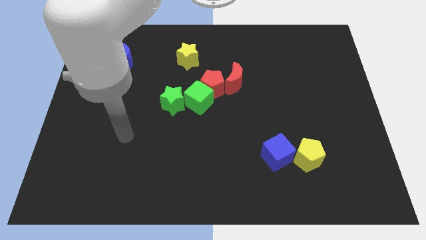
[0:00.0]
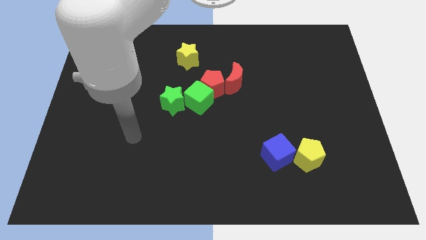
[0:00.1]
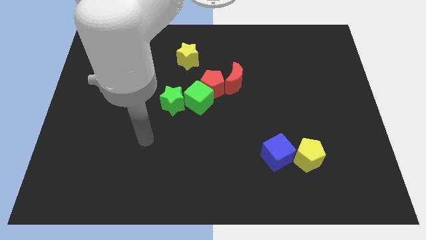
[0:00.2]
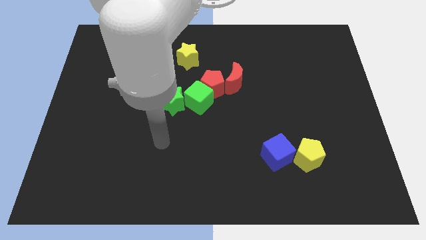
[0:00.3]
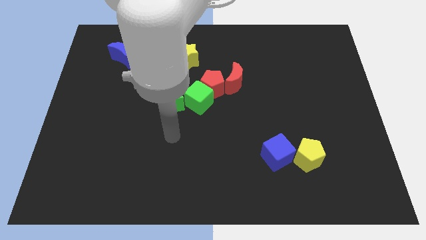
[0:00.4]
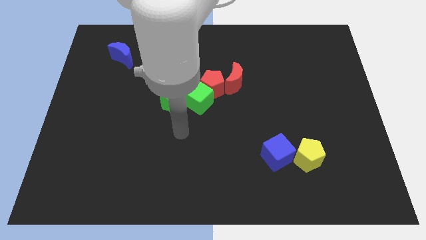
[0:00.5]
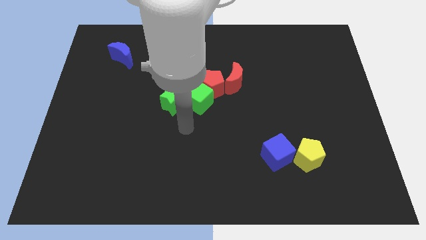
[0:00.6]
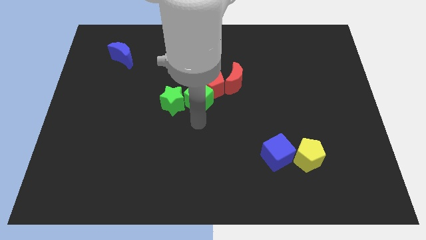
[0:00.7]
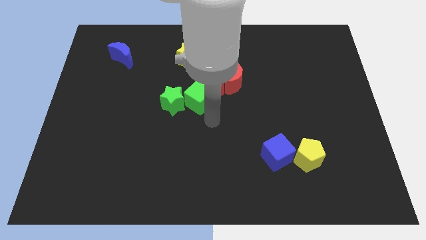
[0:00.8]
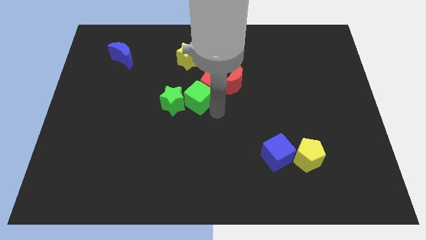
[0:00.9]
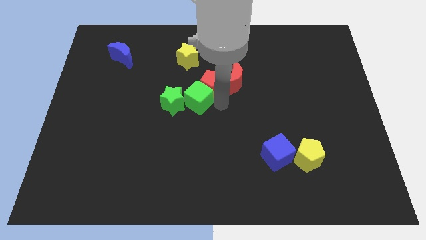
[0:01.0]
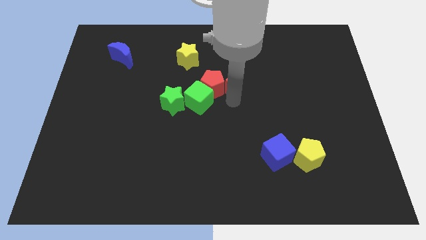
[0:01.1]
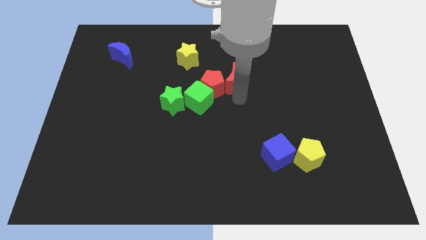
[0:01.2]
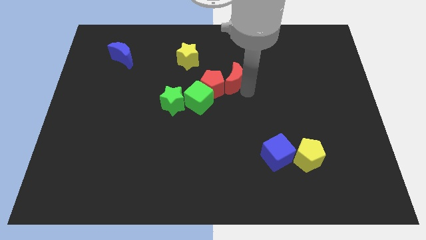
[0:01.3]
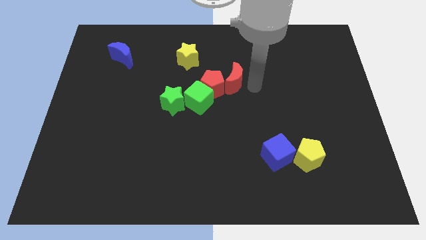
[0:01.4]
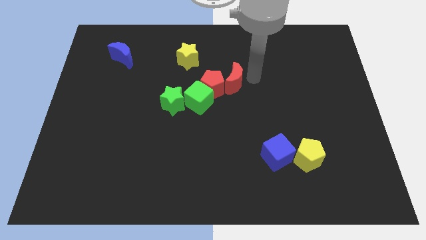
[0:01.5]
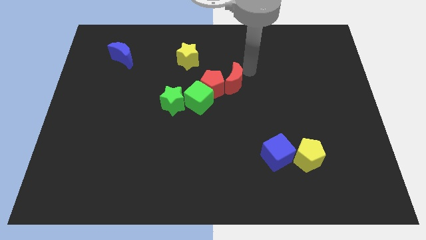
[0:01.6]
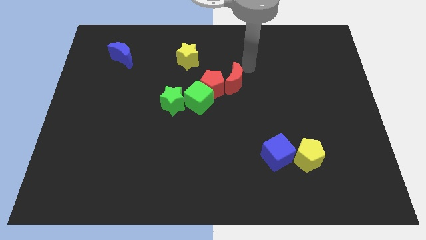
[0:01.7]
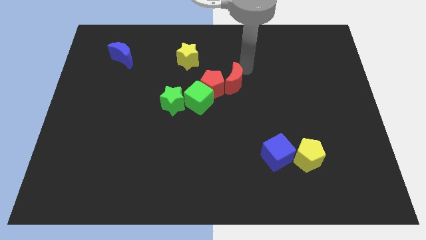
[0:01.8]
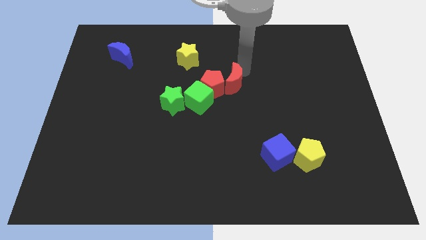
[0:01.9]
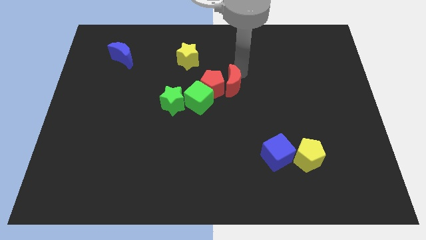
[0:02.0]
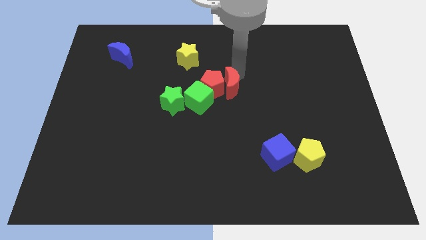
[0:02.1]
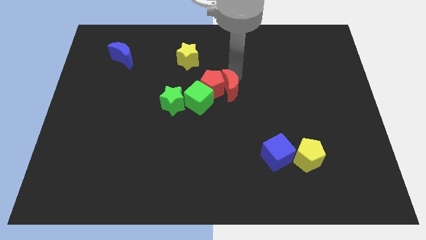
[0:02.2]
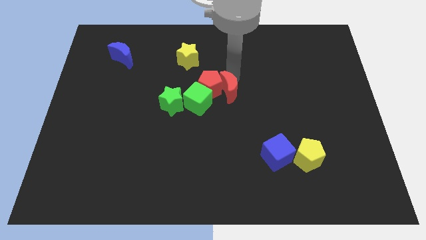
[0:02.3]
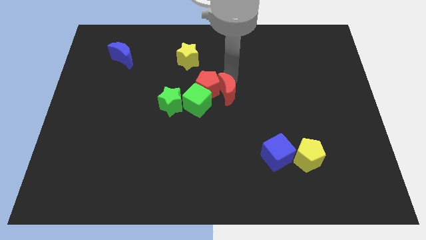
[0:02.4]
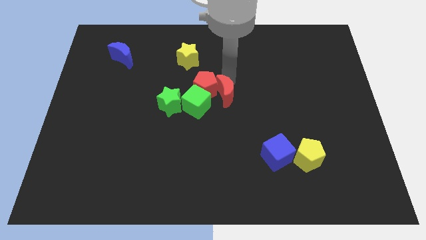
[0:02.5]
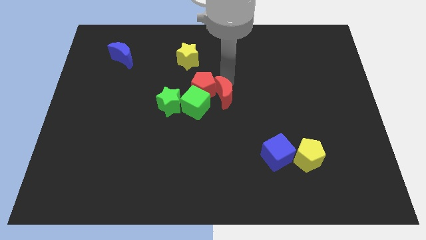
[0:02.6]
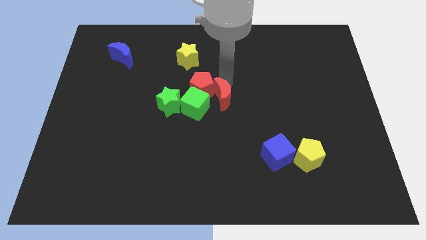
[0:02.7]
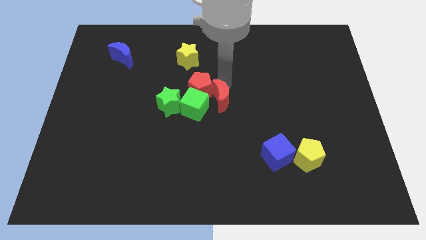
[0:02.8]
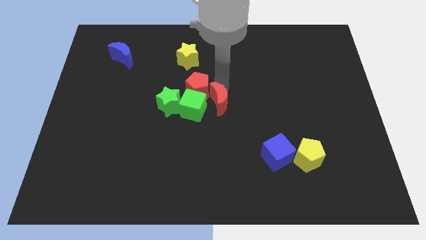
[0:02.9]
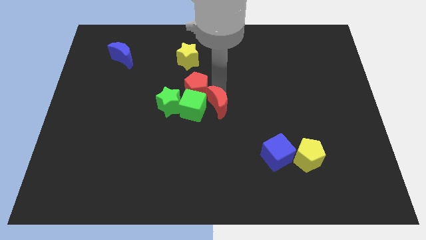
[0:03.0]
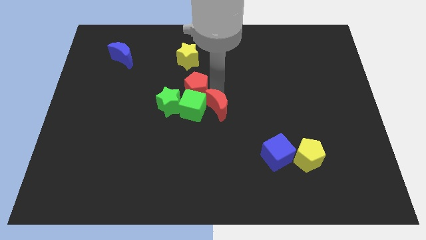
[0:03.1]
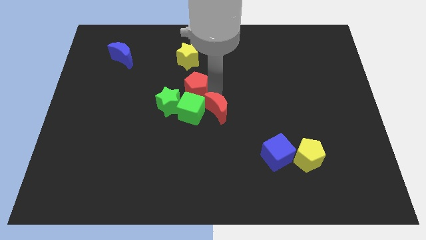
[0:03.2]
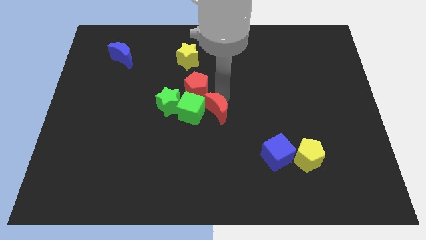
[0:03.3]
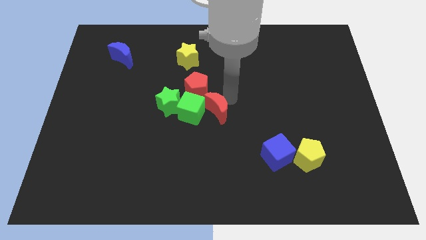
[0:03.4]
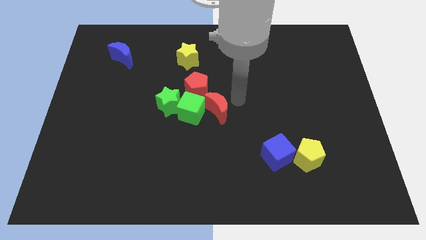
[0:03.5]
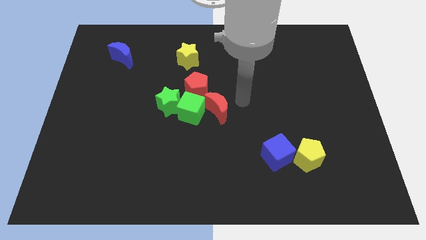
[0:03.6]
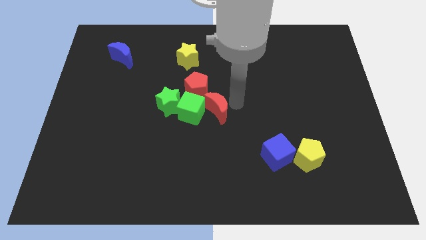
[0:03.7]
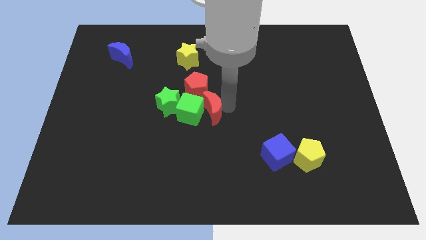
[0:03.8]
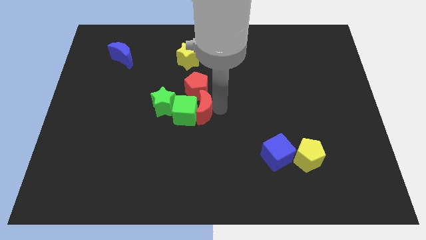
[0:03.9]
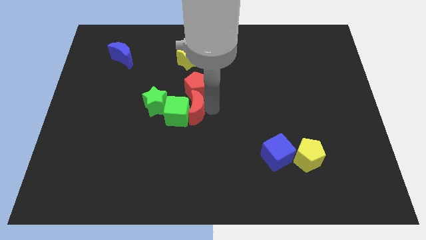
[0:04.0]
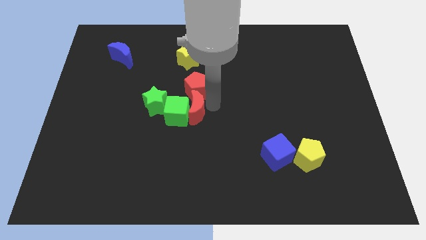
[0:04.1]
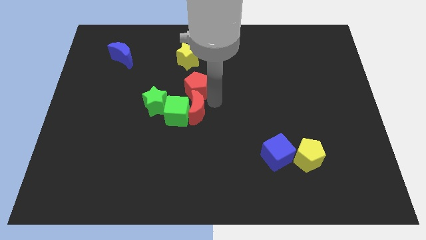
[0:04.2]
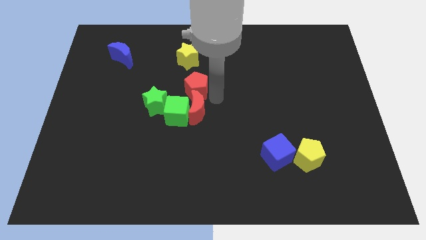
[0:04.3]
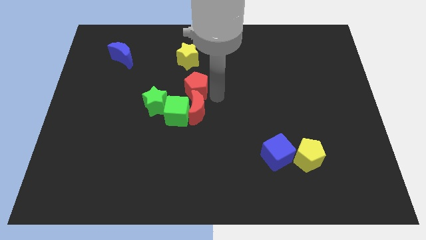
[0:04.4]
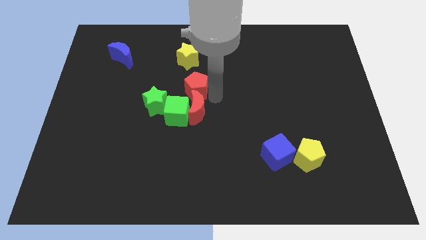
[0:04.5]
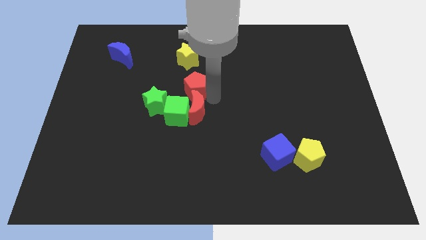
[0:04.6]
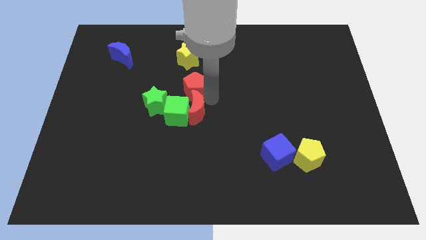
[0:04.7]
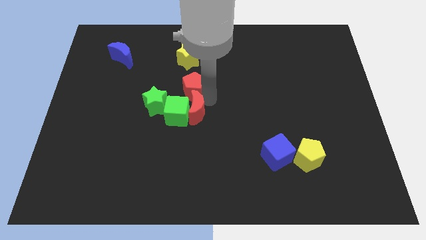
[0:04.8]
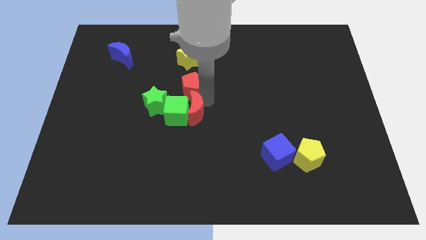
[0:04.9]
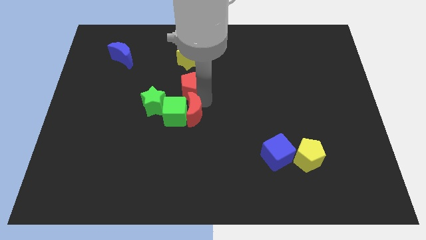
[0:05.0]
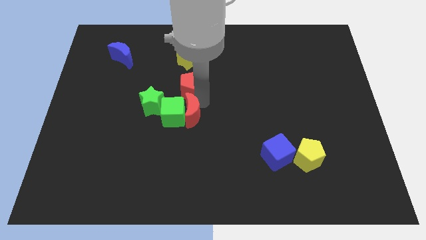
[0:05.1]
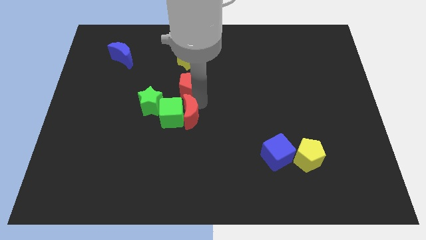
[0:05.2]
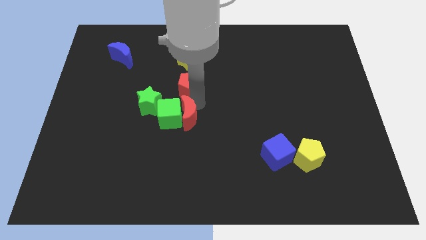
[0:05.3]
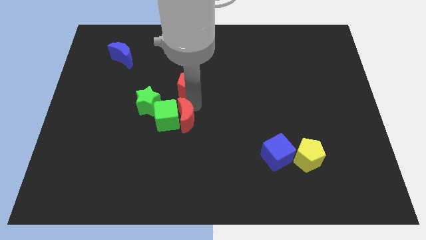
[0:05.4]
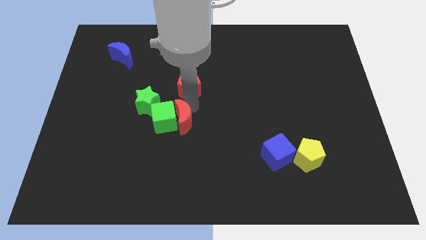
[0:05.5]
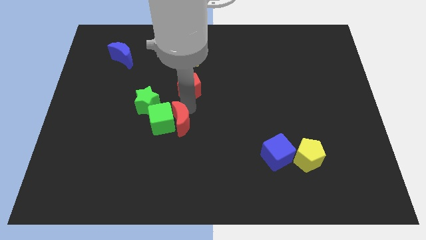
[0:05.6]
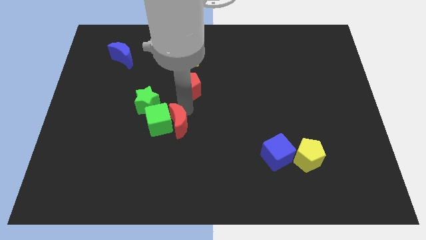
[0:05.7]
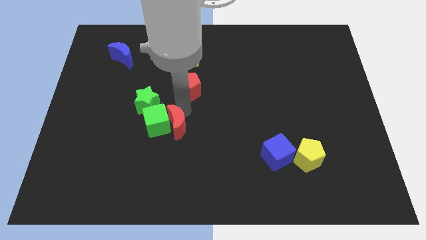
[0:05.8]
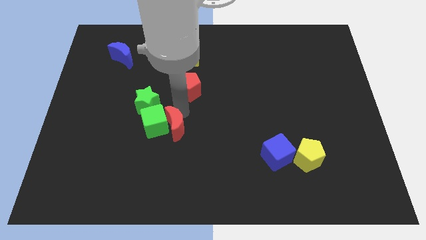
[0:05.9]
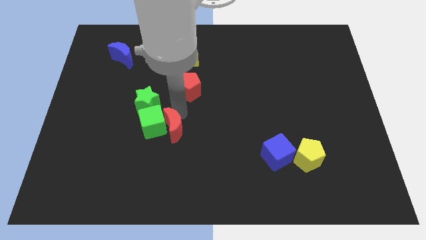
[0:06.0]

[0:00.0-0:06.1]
slide the red moon downwards and to the left diagonally

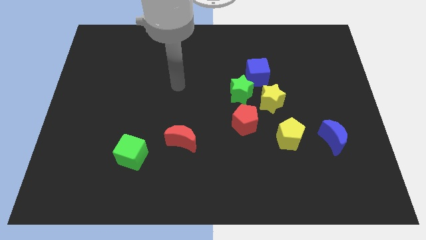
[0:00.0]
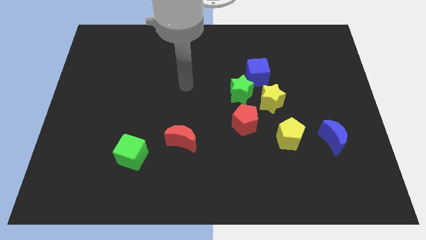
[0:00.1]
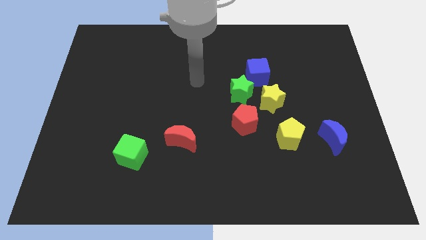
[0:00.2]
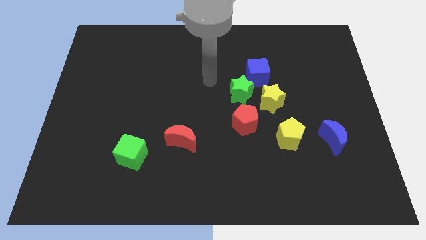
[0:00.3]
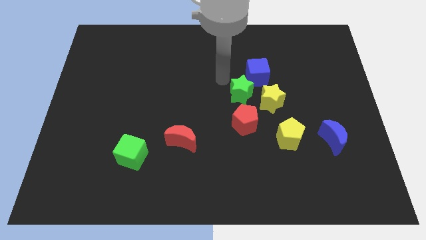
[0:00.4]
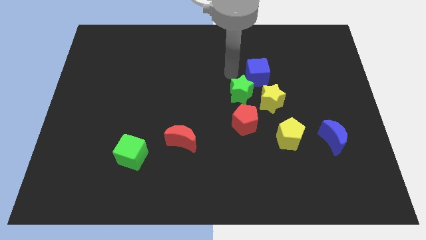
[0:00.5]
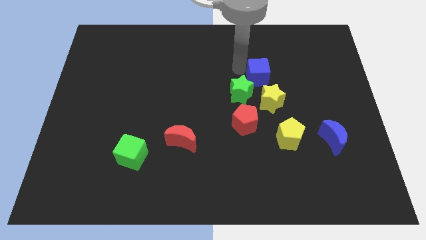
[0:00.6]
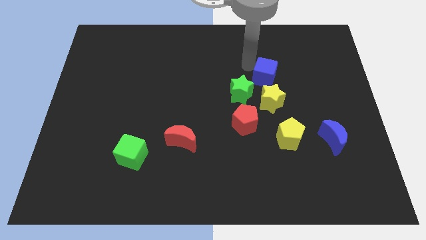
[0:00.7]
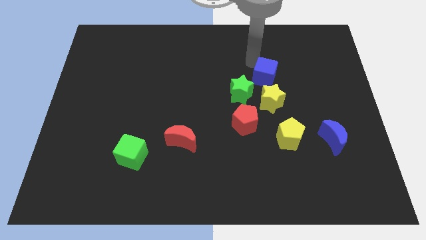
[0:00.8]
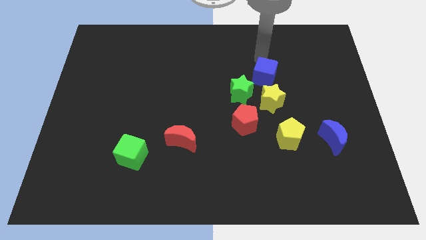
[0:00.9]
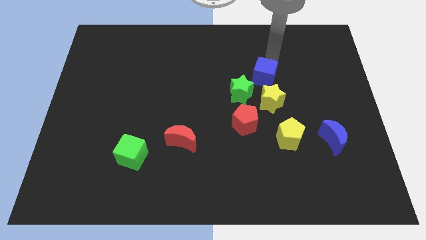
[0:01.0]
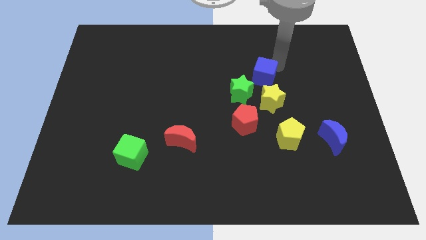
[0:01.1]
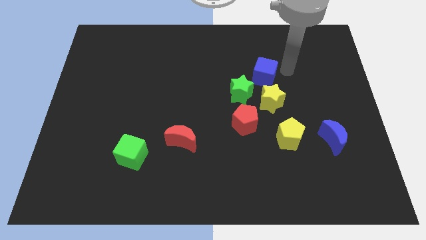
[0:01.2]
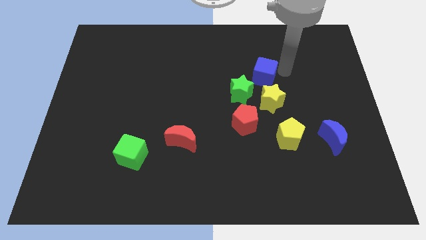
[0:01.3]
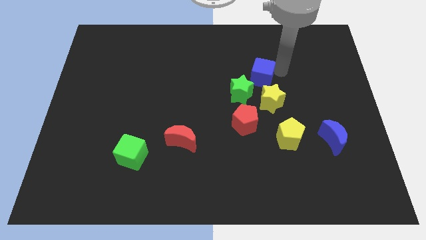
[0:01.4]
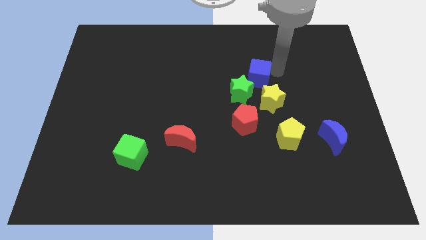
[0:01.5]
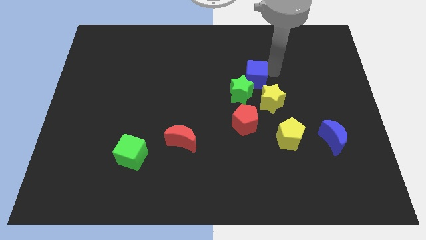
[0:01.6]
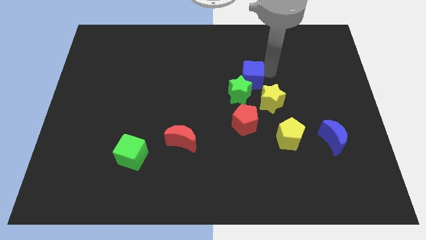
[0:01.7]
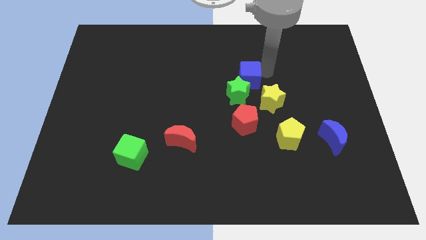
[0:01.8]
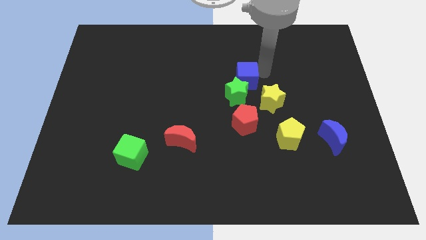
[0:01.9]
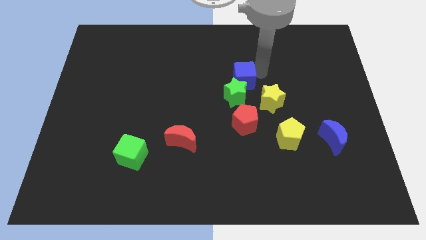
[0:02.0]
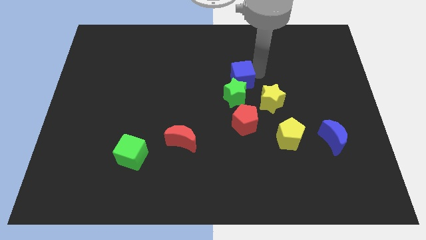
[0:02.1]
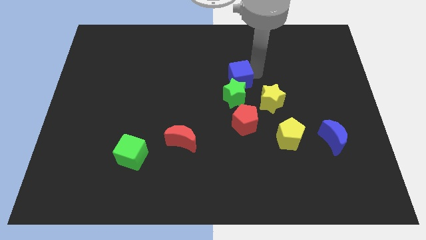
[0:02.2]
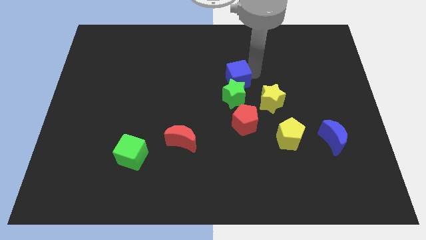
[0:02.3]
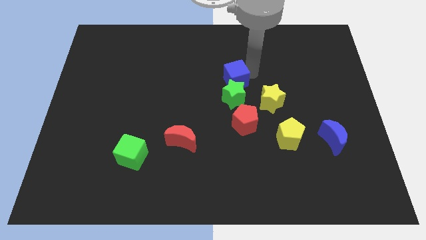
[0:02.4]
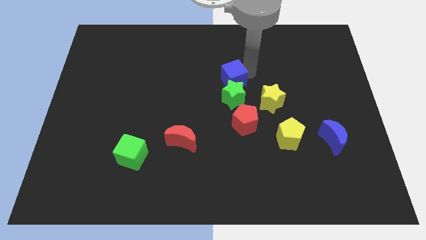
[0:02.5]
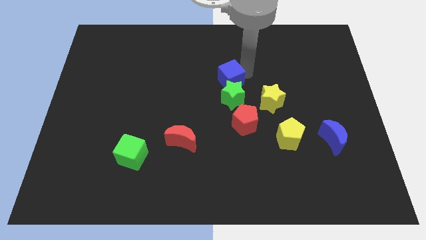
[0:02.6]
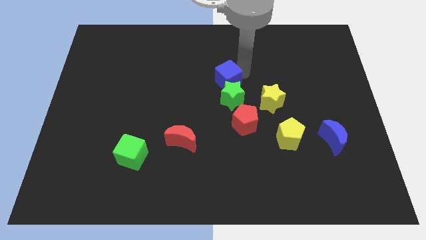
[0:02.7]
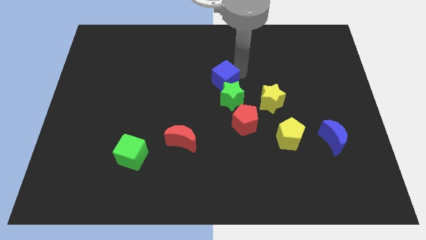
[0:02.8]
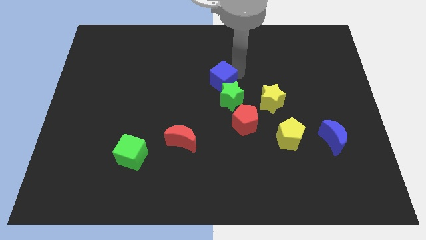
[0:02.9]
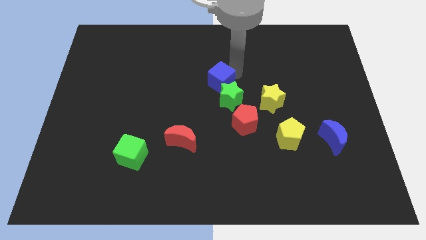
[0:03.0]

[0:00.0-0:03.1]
move the blue cube slightly down and left diagonally
